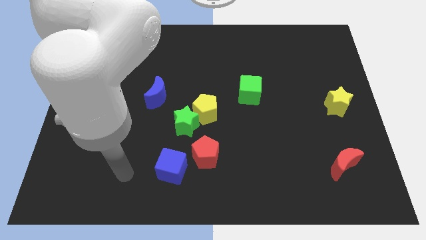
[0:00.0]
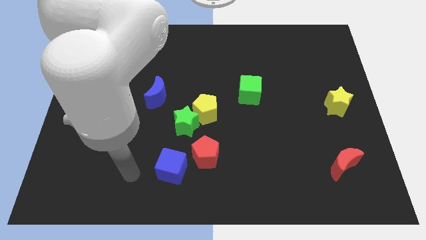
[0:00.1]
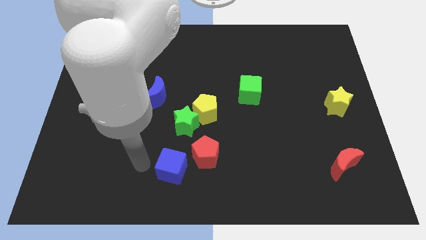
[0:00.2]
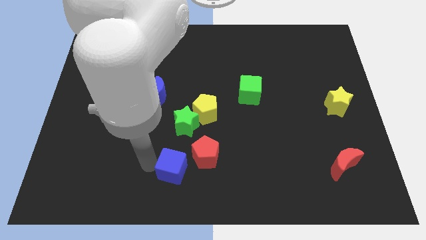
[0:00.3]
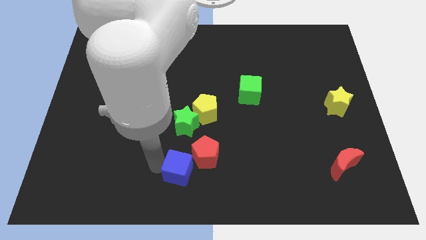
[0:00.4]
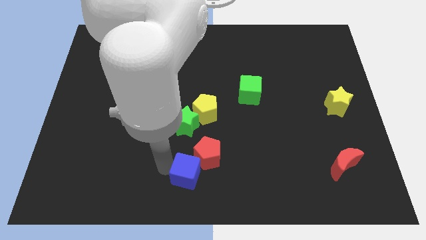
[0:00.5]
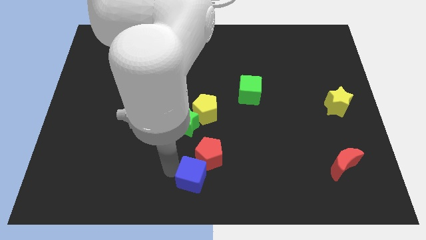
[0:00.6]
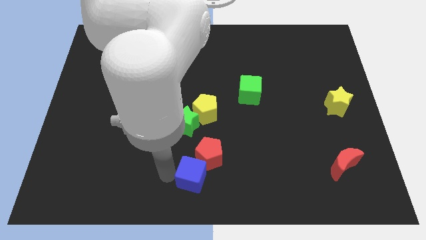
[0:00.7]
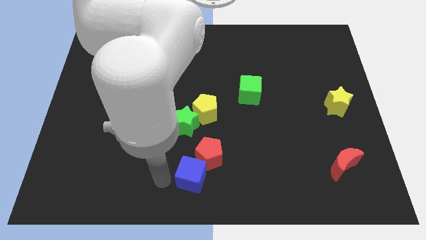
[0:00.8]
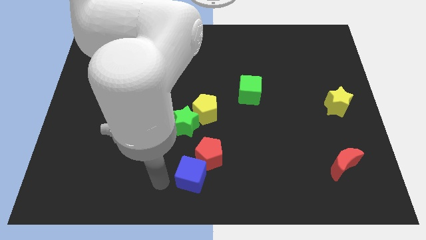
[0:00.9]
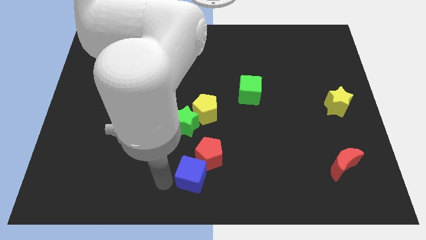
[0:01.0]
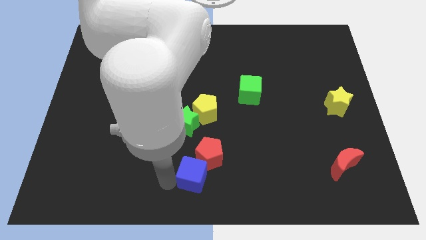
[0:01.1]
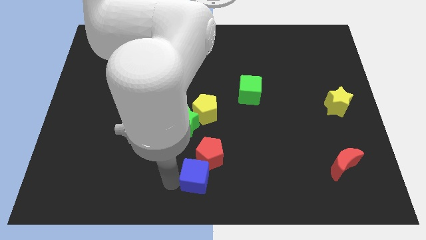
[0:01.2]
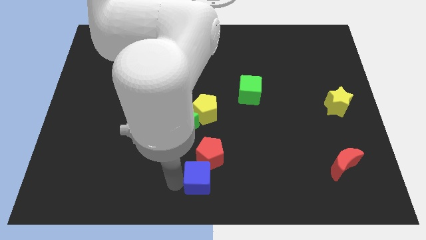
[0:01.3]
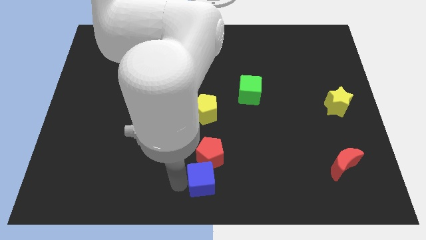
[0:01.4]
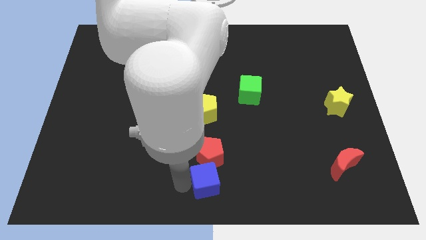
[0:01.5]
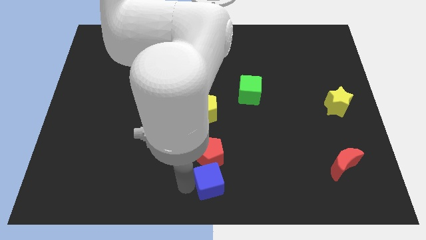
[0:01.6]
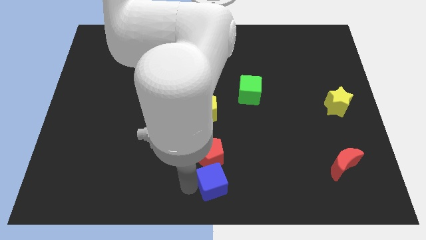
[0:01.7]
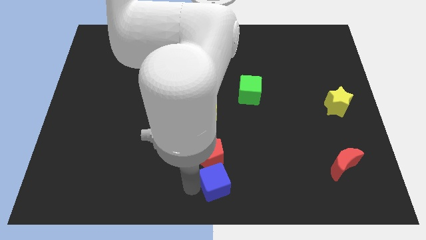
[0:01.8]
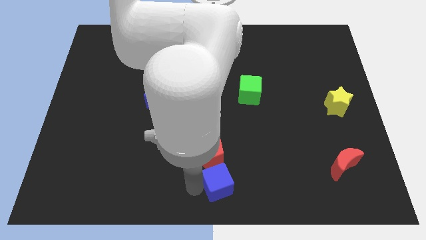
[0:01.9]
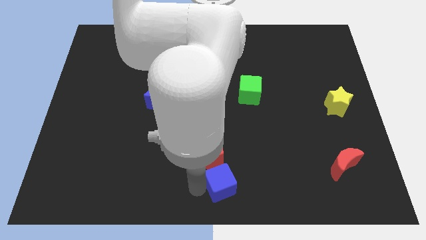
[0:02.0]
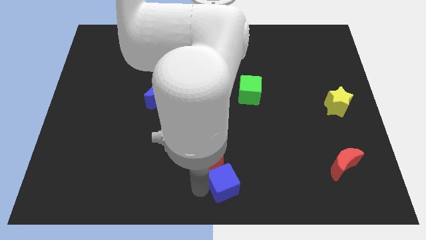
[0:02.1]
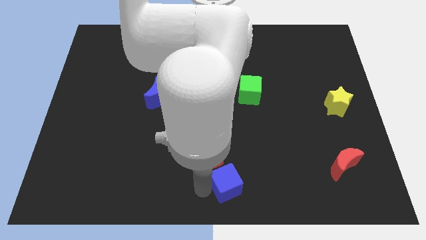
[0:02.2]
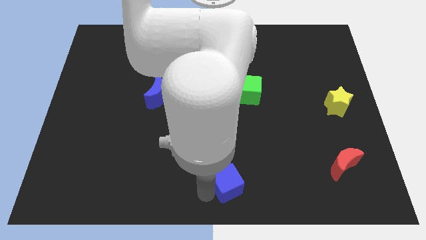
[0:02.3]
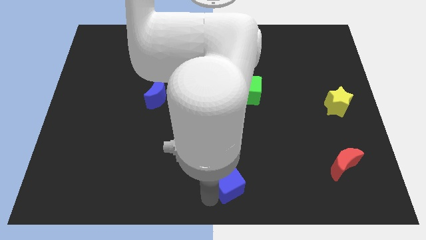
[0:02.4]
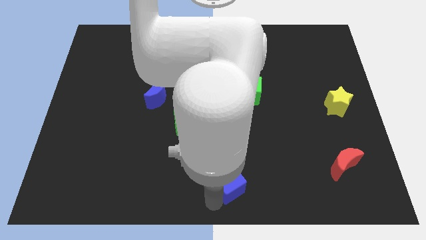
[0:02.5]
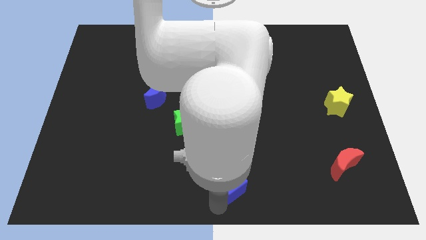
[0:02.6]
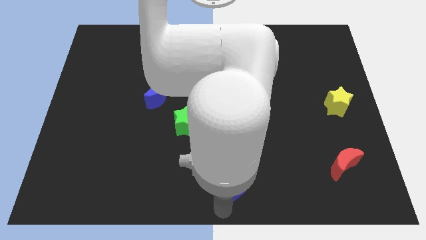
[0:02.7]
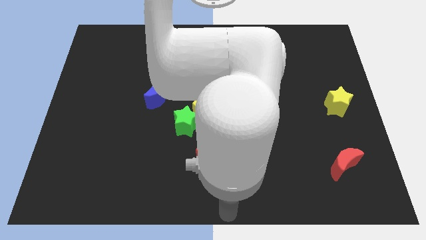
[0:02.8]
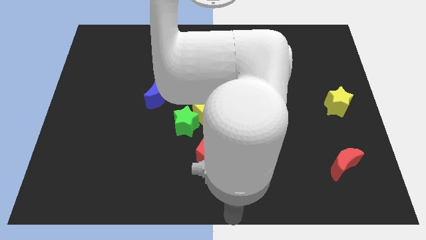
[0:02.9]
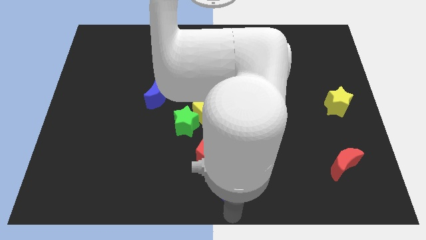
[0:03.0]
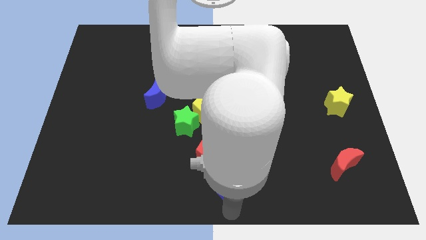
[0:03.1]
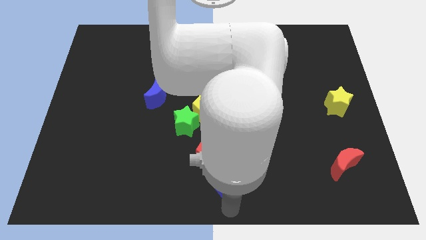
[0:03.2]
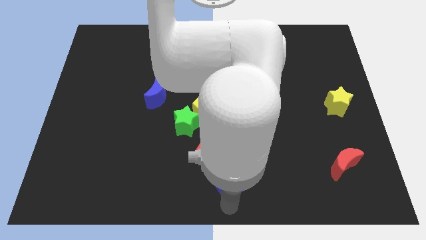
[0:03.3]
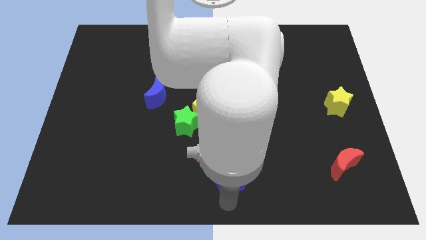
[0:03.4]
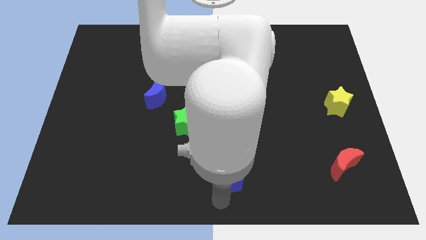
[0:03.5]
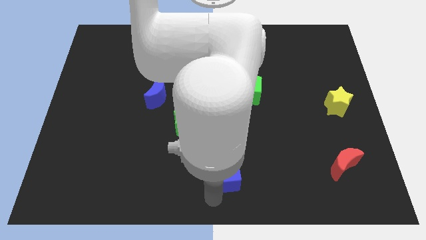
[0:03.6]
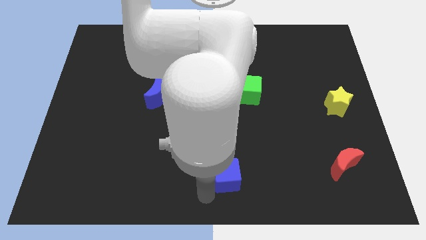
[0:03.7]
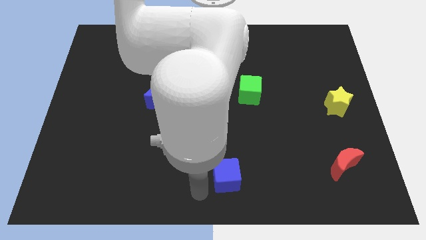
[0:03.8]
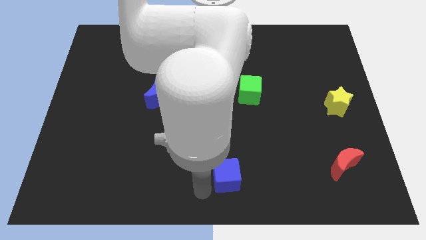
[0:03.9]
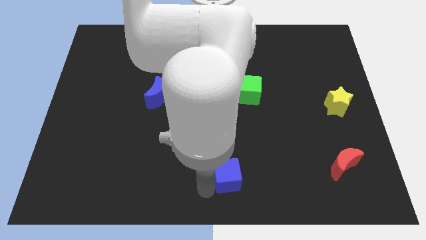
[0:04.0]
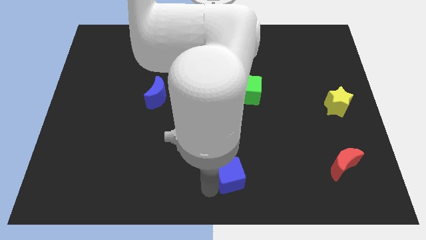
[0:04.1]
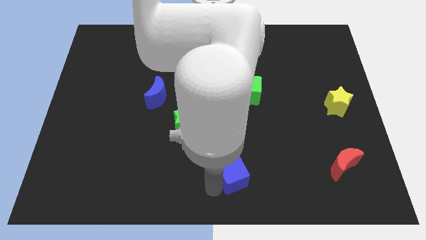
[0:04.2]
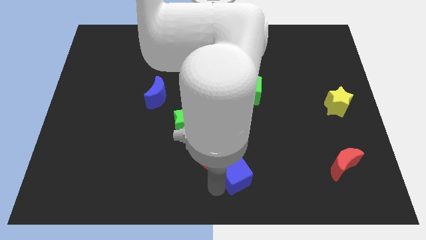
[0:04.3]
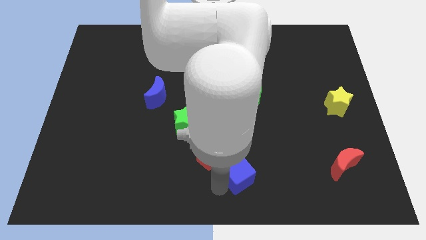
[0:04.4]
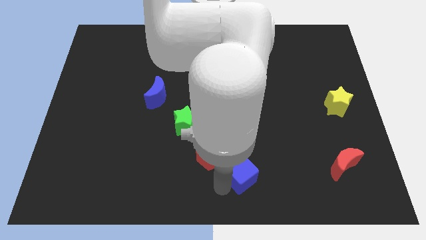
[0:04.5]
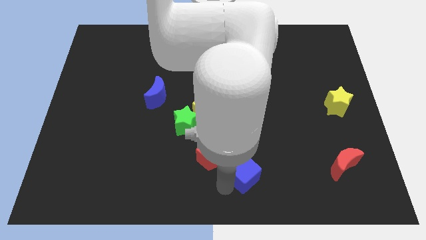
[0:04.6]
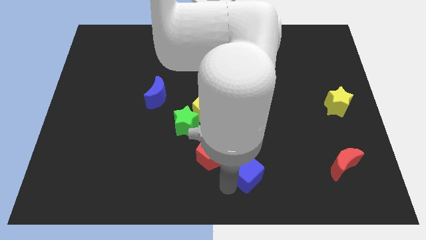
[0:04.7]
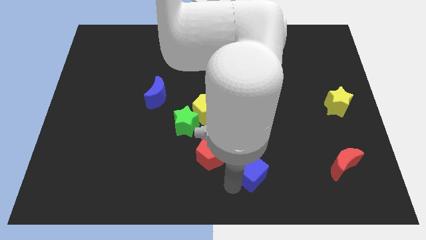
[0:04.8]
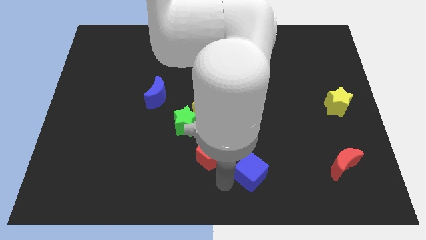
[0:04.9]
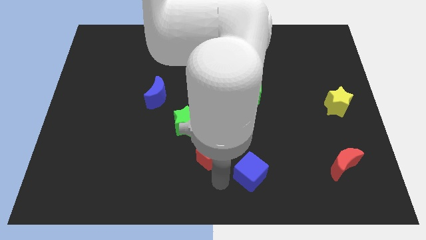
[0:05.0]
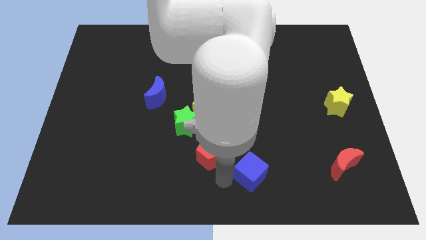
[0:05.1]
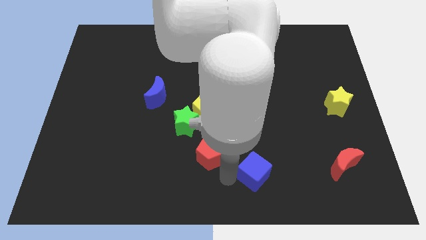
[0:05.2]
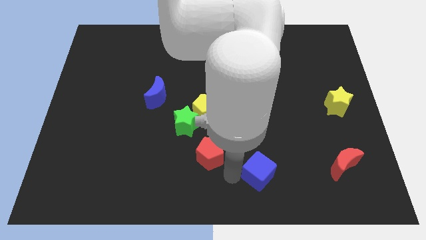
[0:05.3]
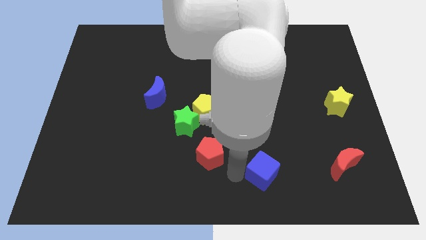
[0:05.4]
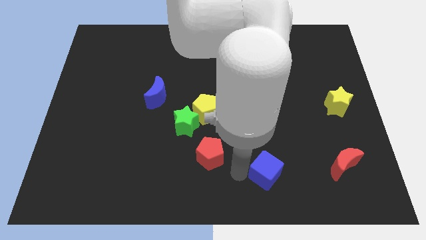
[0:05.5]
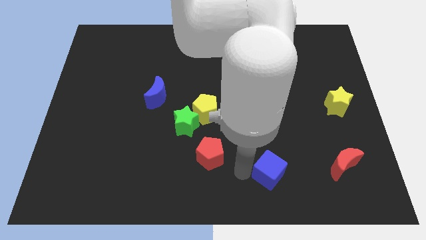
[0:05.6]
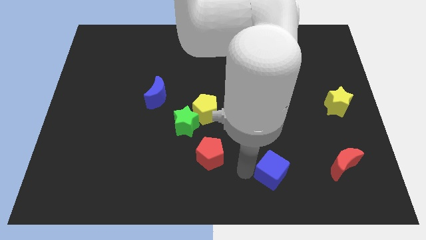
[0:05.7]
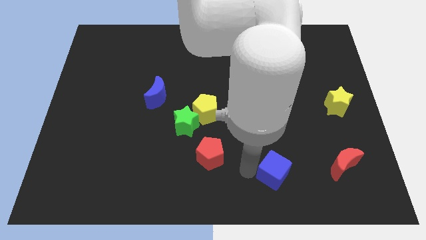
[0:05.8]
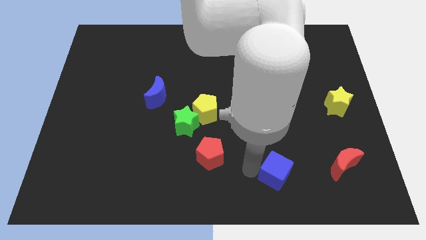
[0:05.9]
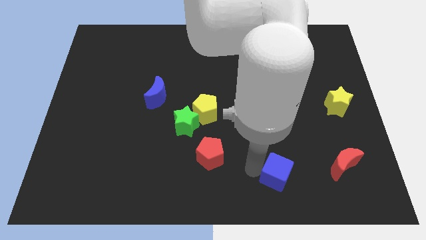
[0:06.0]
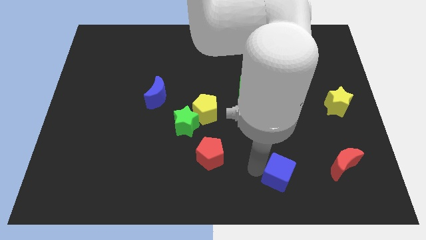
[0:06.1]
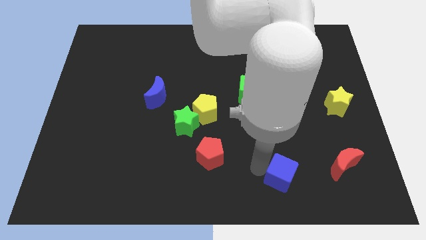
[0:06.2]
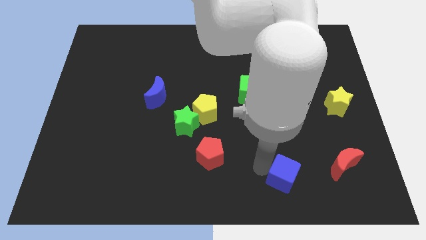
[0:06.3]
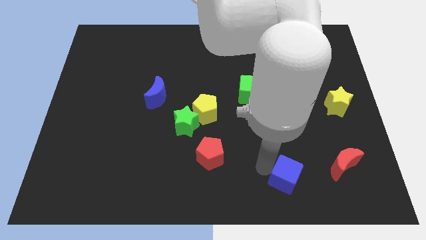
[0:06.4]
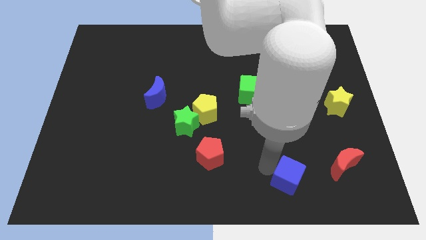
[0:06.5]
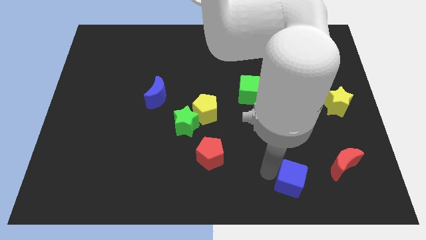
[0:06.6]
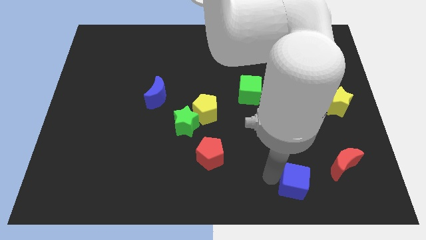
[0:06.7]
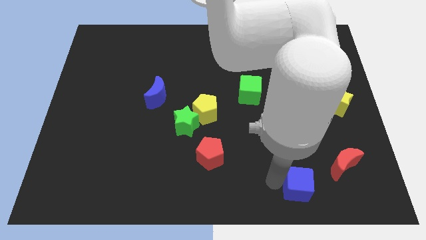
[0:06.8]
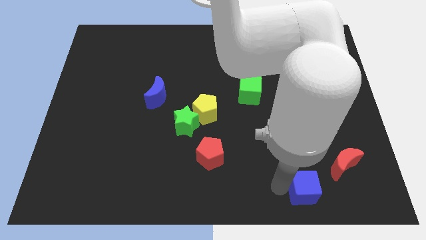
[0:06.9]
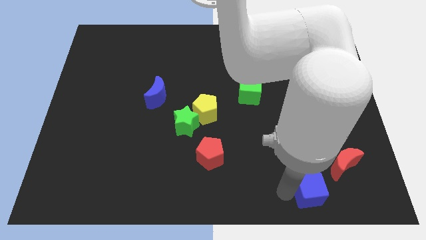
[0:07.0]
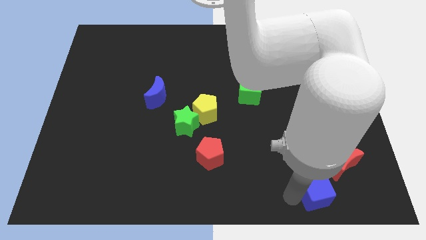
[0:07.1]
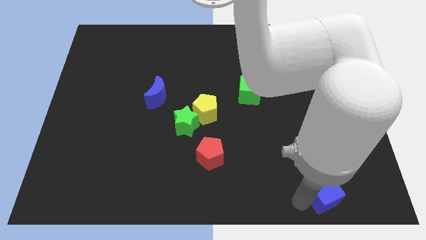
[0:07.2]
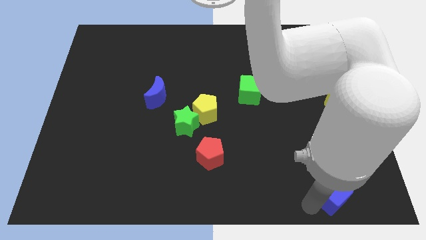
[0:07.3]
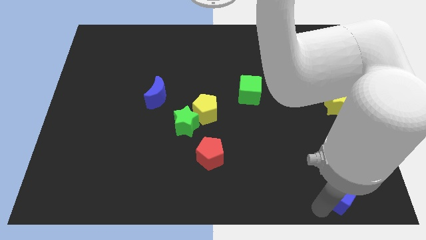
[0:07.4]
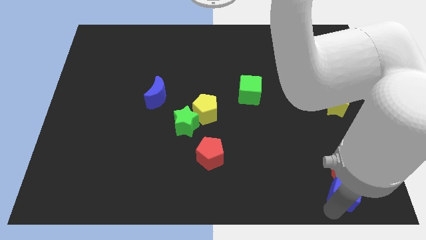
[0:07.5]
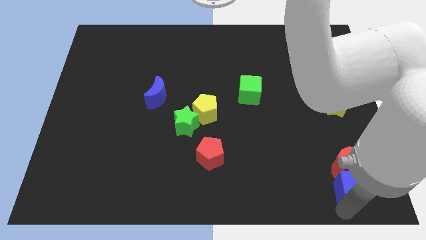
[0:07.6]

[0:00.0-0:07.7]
move the blue cube to the red moon
